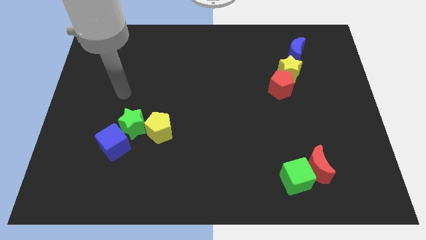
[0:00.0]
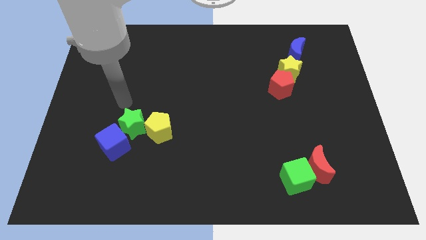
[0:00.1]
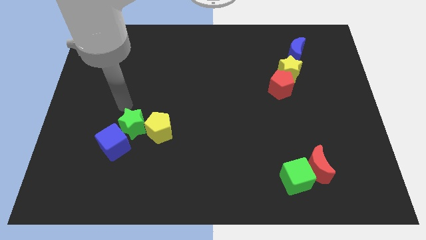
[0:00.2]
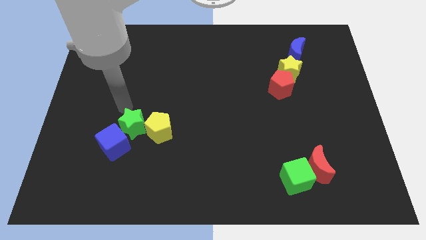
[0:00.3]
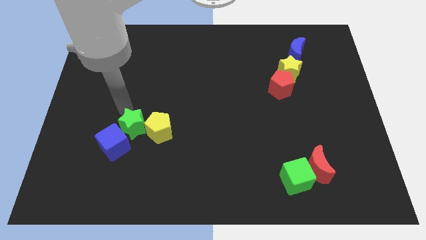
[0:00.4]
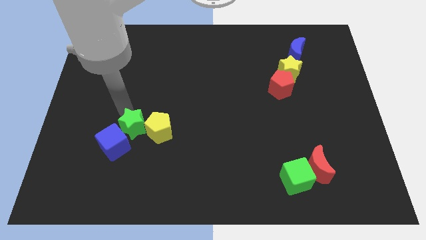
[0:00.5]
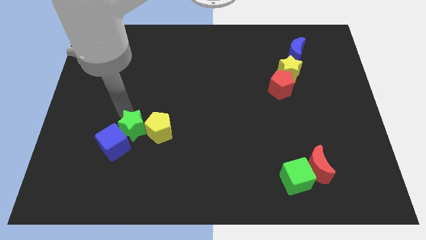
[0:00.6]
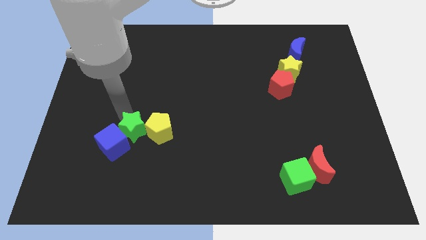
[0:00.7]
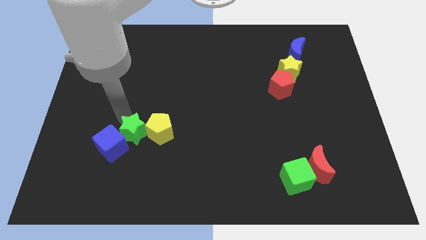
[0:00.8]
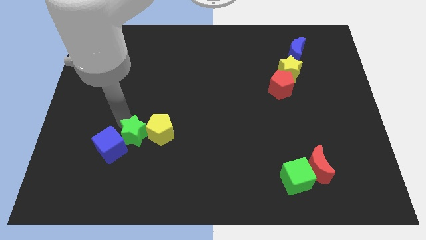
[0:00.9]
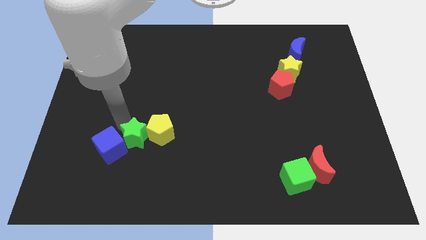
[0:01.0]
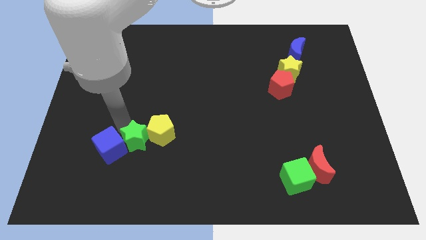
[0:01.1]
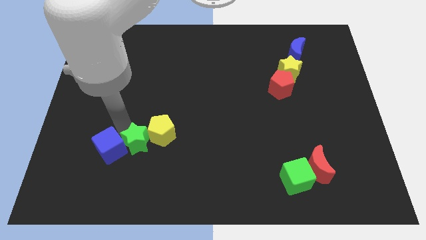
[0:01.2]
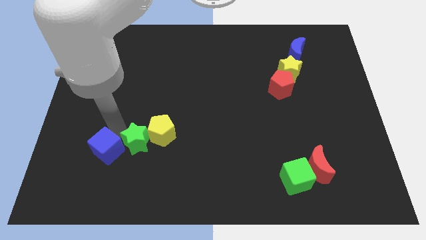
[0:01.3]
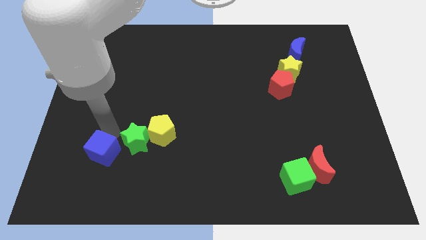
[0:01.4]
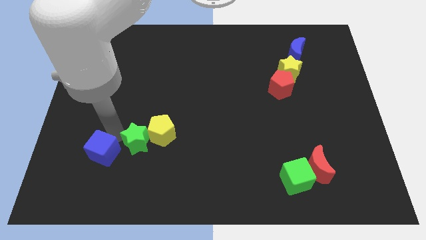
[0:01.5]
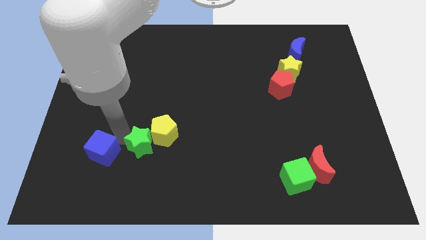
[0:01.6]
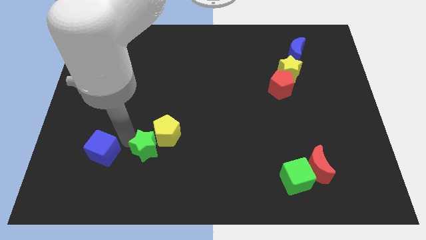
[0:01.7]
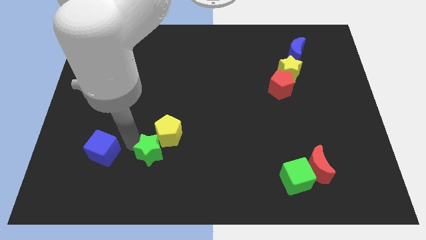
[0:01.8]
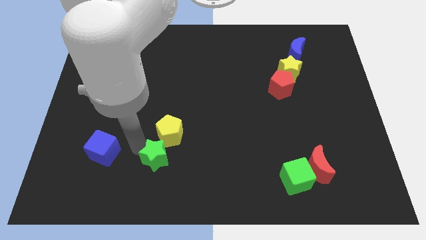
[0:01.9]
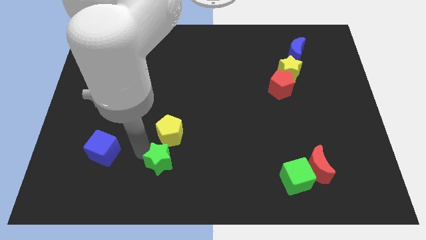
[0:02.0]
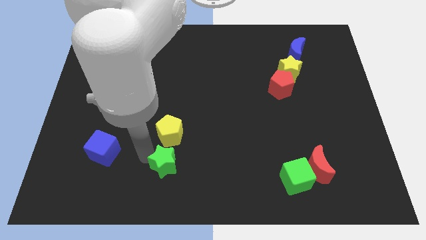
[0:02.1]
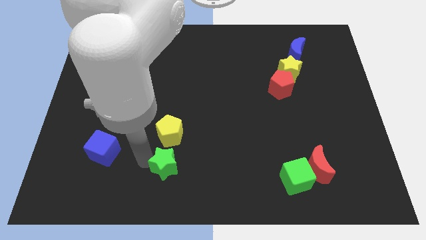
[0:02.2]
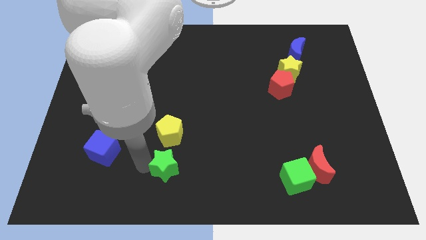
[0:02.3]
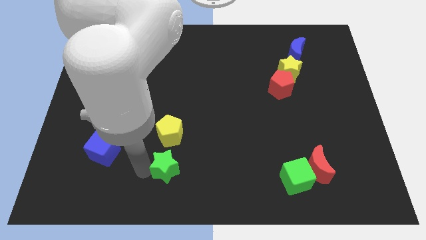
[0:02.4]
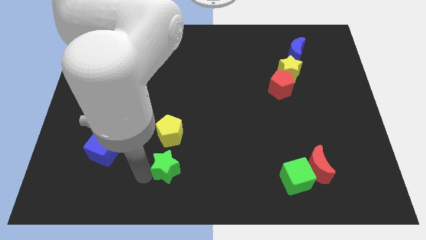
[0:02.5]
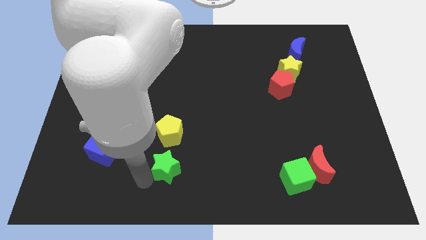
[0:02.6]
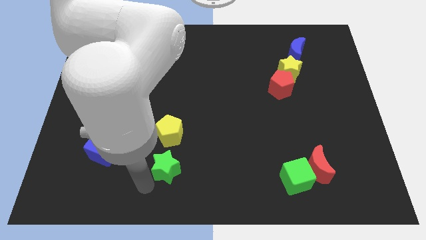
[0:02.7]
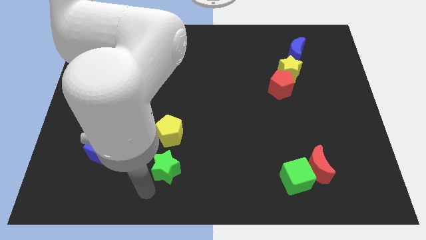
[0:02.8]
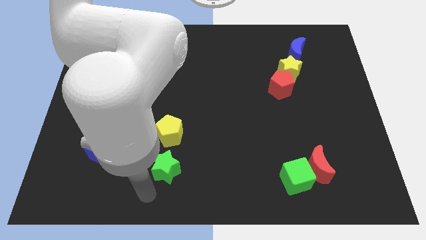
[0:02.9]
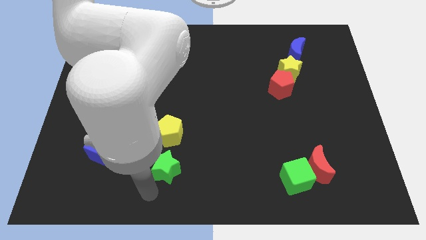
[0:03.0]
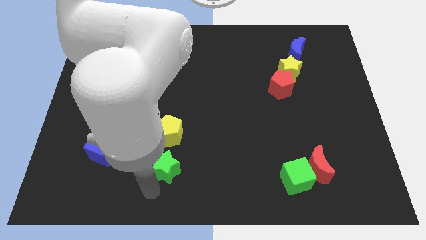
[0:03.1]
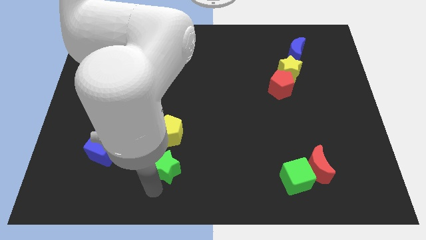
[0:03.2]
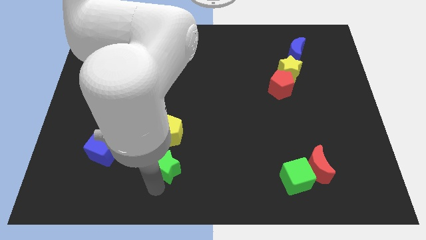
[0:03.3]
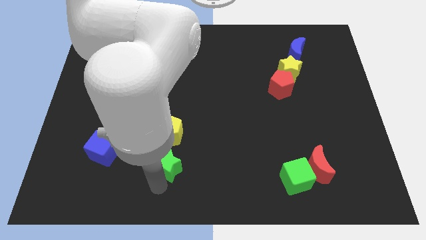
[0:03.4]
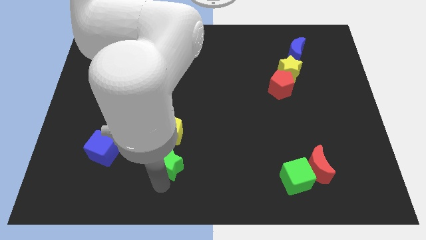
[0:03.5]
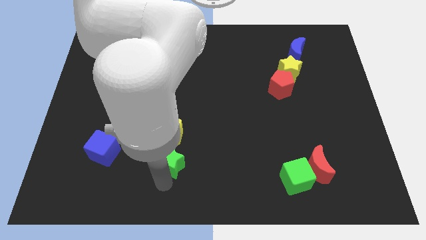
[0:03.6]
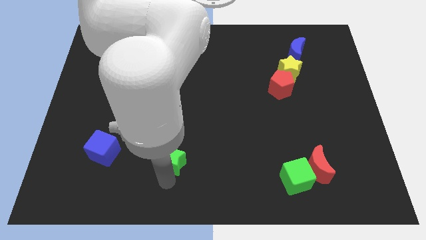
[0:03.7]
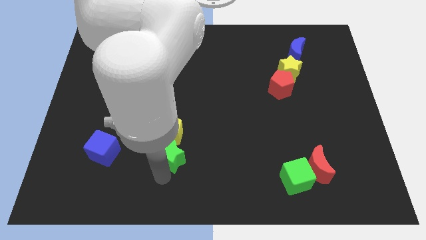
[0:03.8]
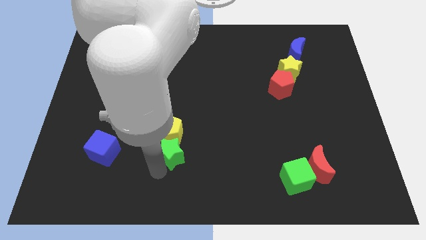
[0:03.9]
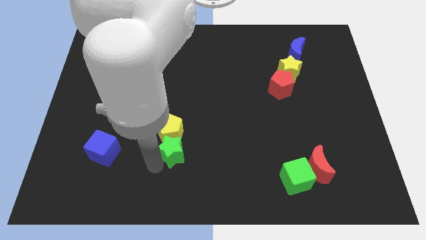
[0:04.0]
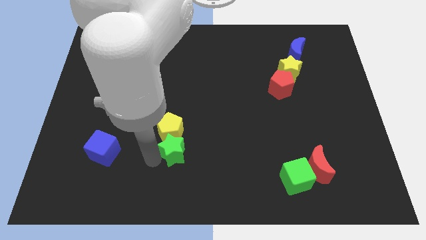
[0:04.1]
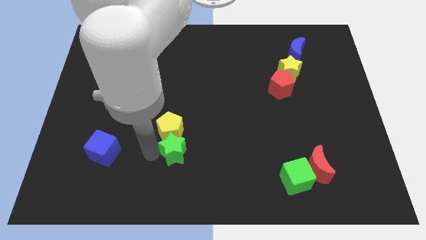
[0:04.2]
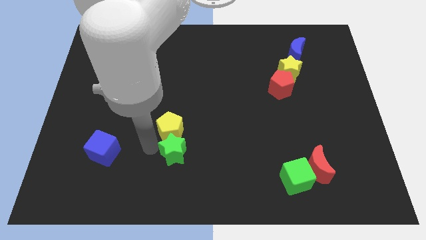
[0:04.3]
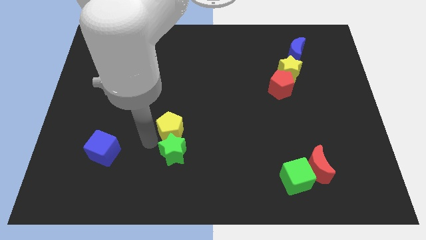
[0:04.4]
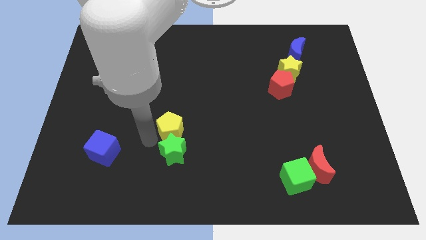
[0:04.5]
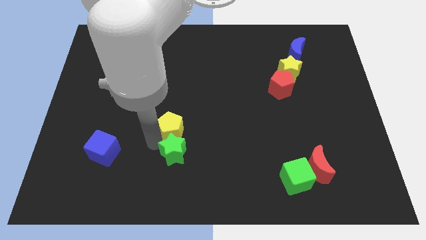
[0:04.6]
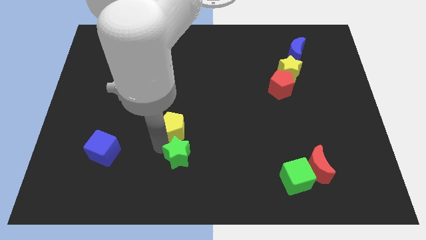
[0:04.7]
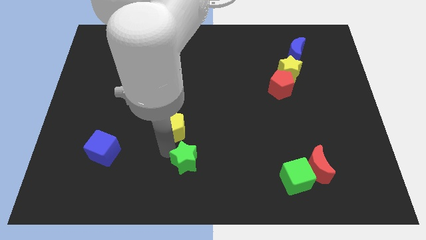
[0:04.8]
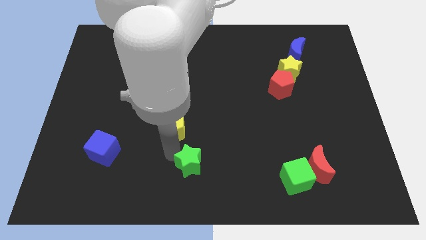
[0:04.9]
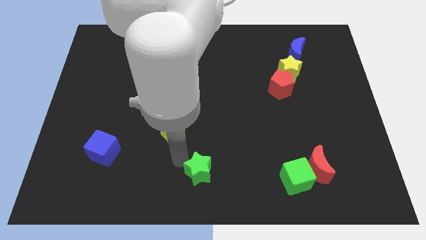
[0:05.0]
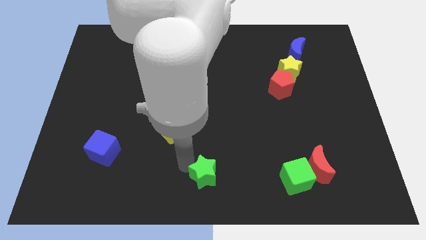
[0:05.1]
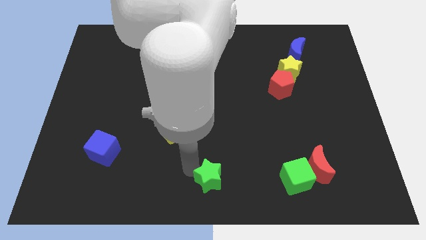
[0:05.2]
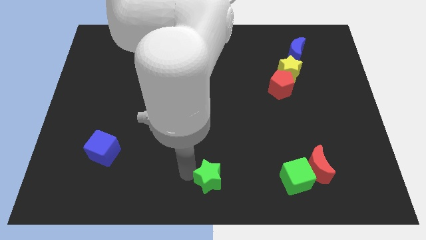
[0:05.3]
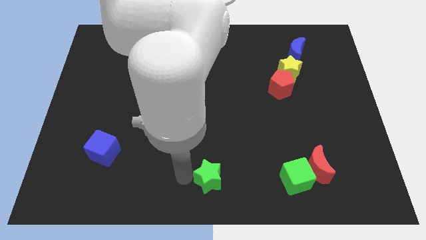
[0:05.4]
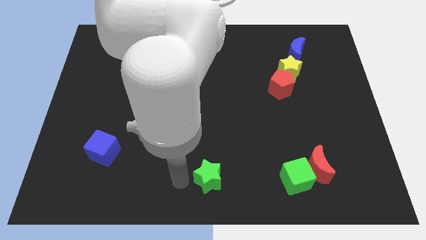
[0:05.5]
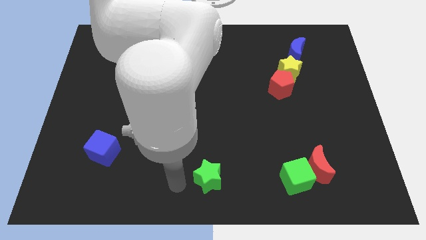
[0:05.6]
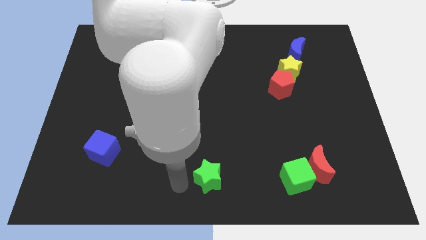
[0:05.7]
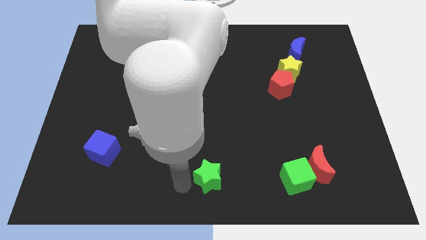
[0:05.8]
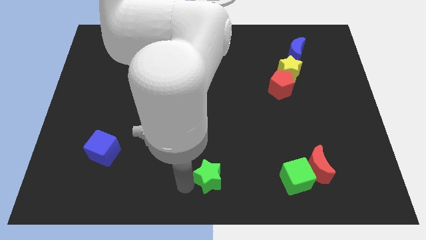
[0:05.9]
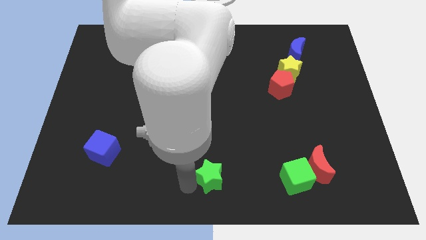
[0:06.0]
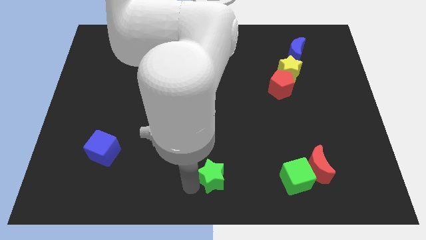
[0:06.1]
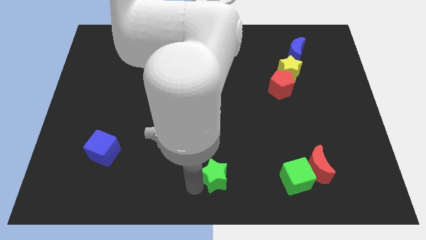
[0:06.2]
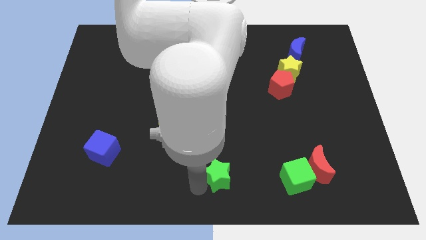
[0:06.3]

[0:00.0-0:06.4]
put the green star just left of the green cube

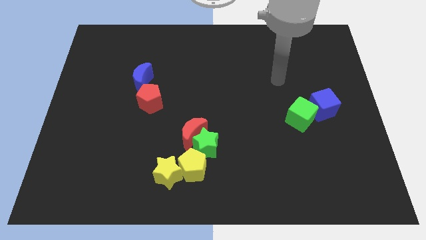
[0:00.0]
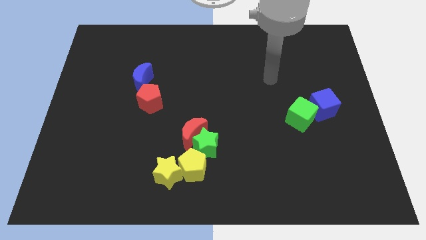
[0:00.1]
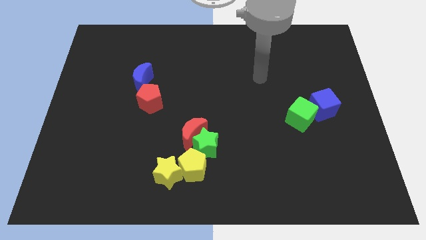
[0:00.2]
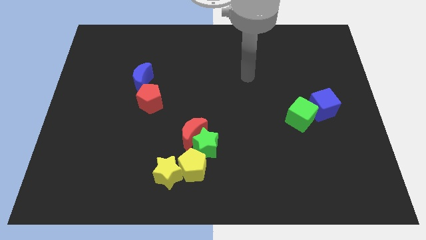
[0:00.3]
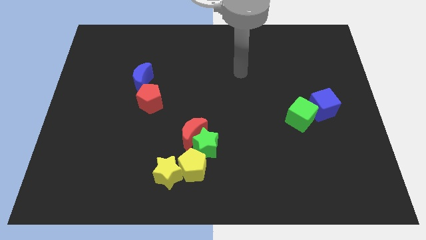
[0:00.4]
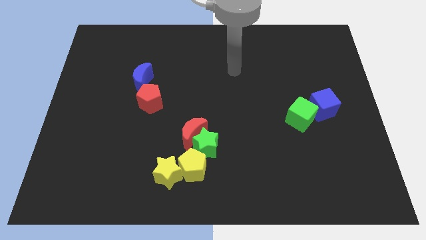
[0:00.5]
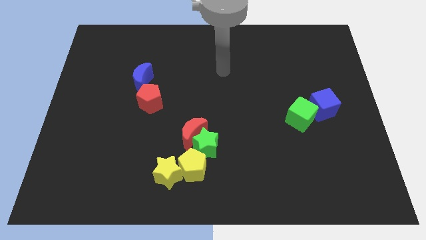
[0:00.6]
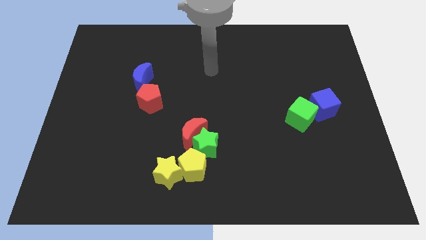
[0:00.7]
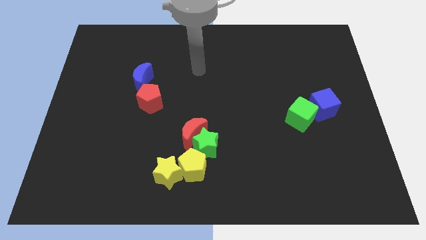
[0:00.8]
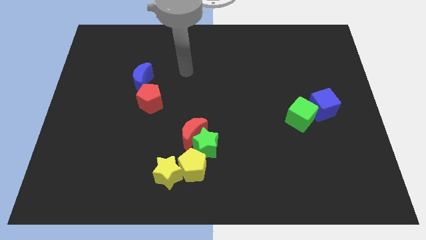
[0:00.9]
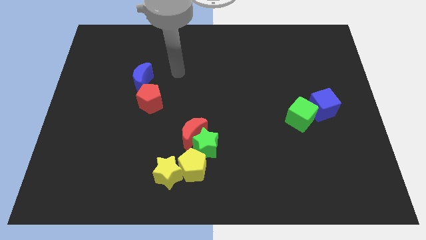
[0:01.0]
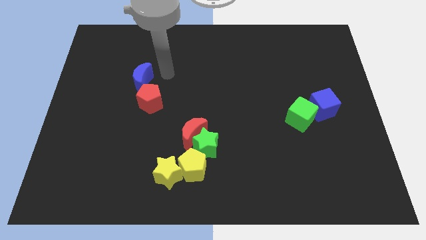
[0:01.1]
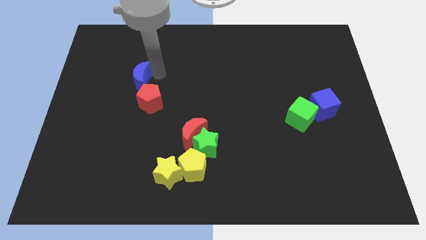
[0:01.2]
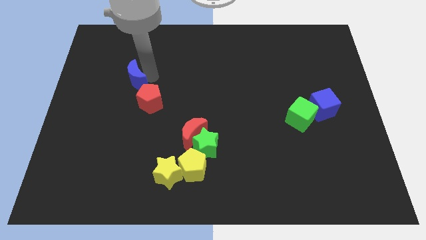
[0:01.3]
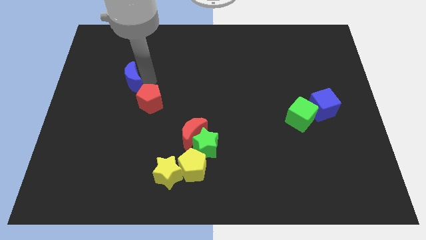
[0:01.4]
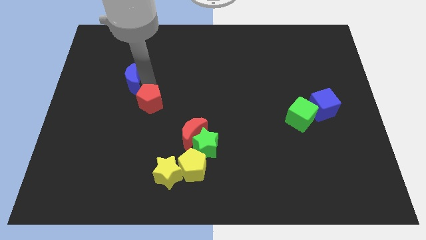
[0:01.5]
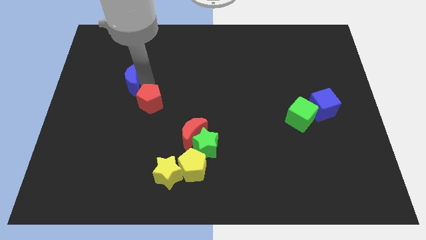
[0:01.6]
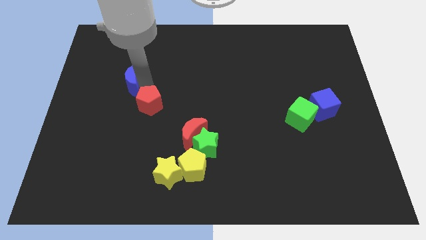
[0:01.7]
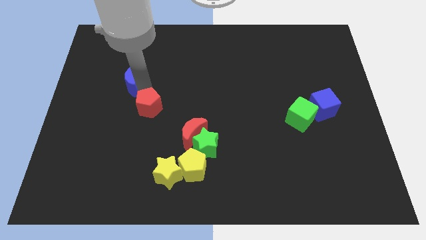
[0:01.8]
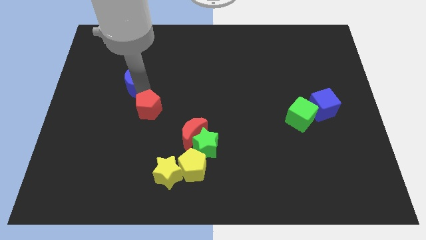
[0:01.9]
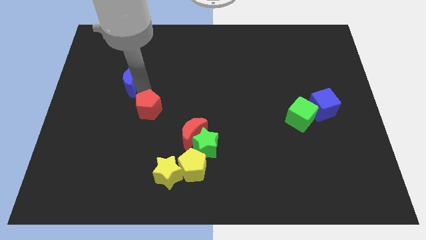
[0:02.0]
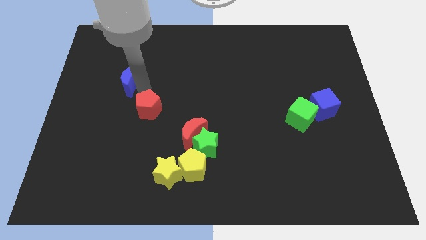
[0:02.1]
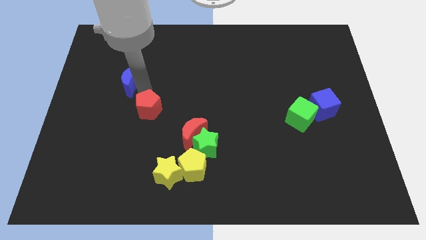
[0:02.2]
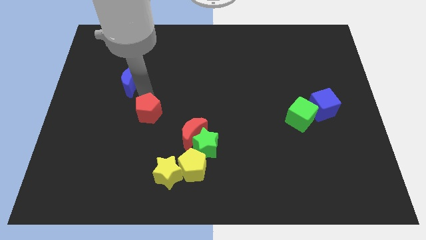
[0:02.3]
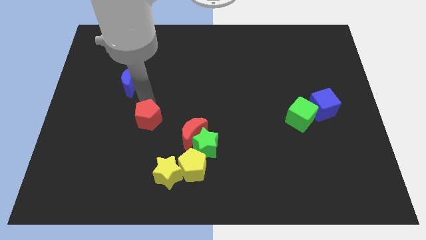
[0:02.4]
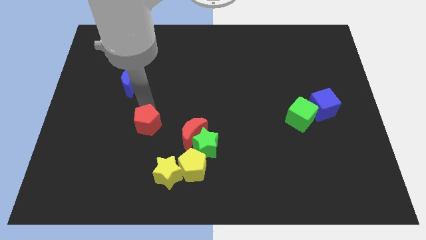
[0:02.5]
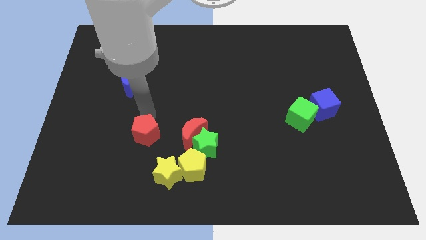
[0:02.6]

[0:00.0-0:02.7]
put the red pentagon to the top left side of the yellow star
